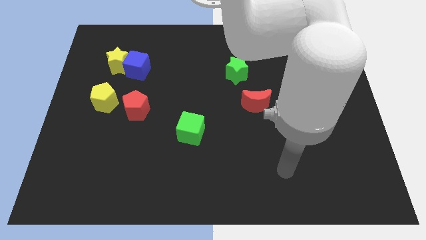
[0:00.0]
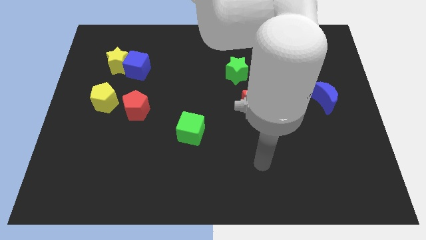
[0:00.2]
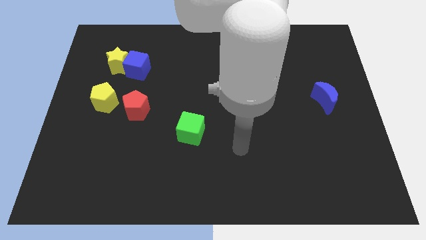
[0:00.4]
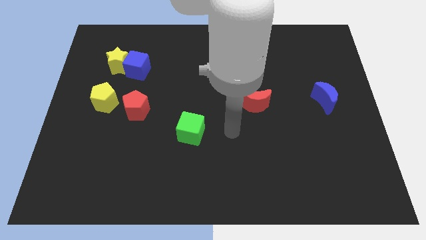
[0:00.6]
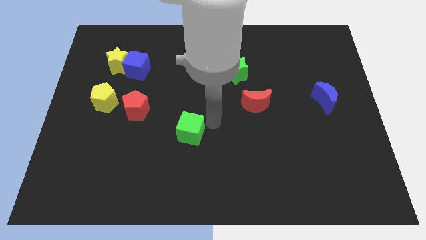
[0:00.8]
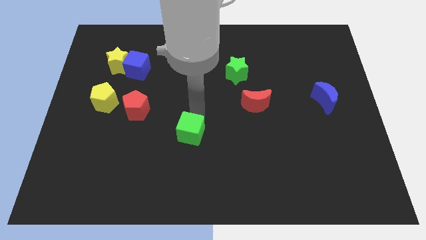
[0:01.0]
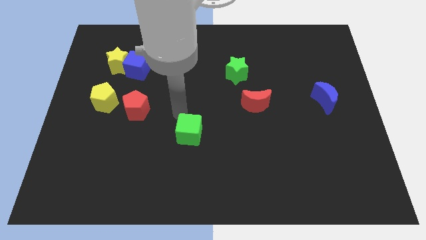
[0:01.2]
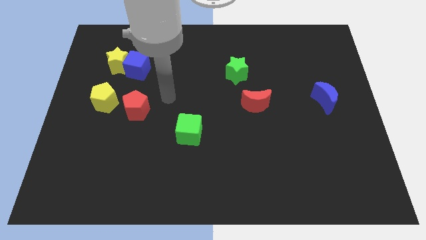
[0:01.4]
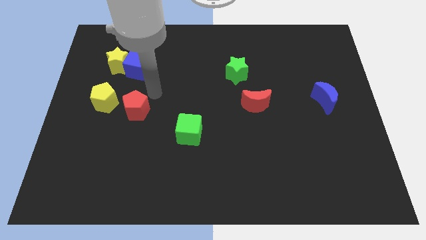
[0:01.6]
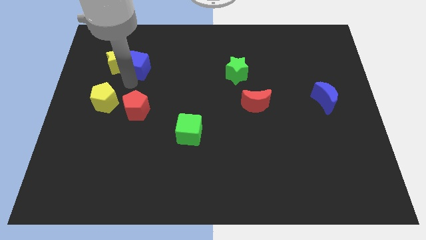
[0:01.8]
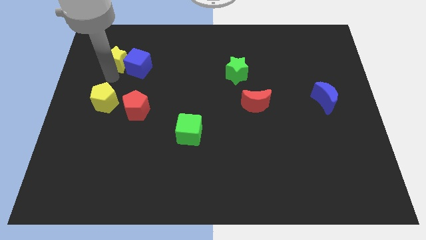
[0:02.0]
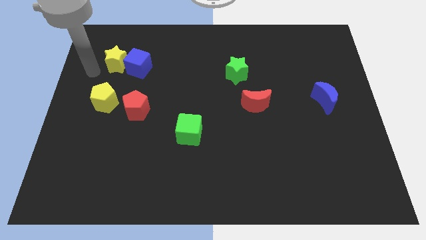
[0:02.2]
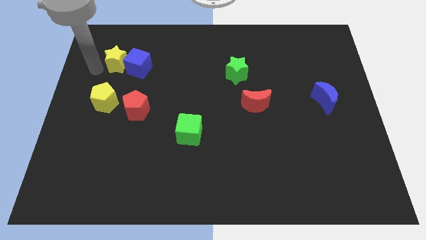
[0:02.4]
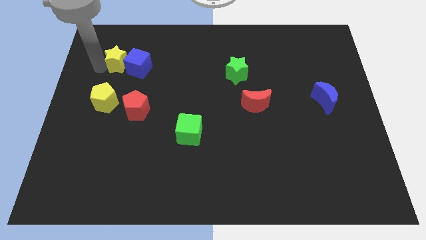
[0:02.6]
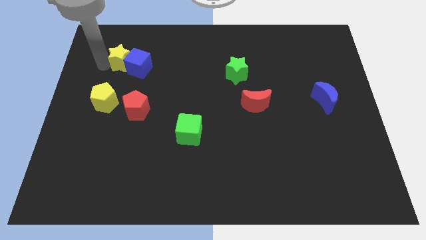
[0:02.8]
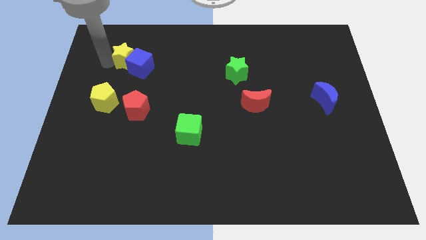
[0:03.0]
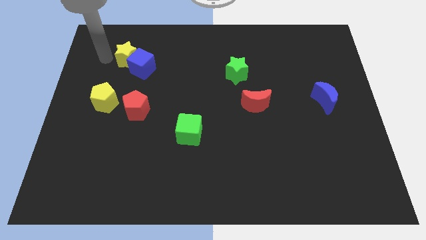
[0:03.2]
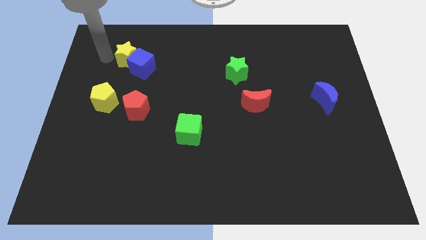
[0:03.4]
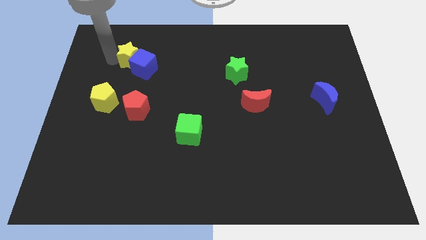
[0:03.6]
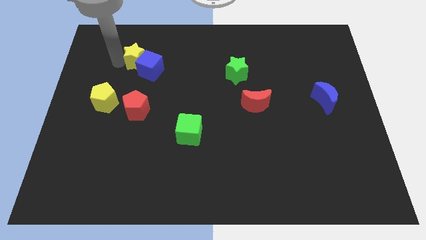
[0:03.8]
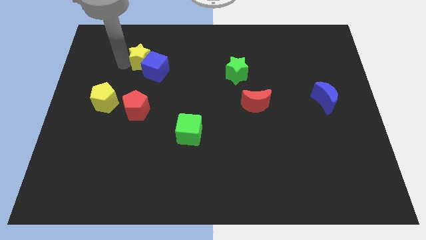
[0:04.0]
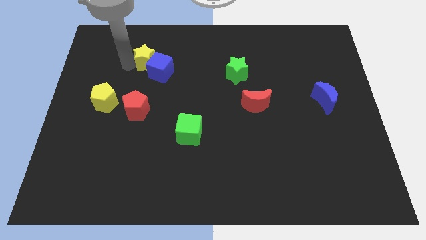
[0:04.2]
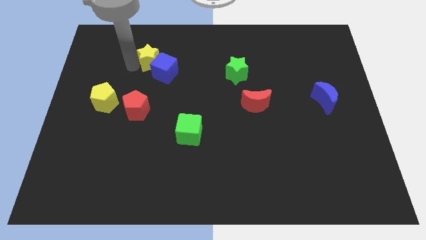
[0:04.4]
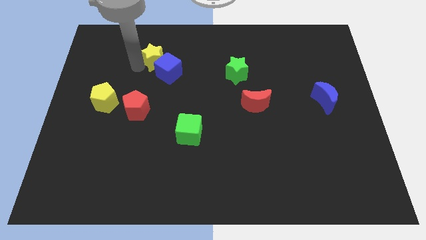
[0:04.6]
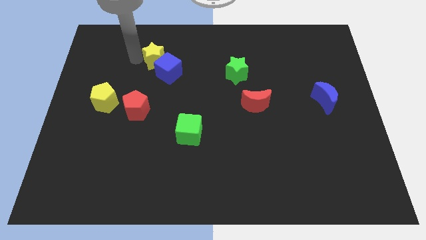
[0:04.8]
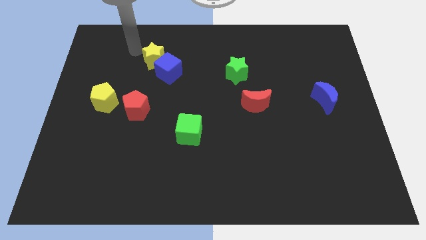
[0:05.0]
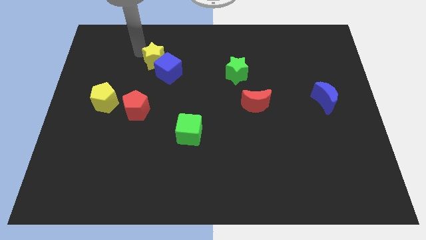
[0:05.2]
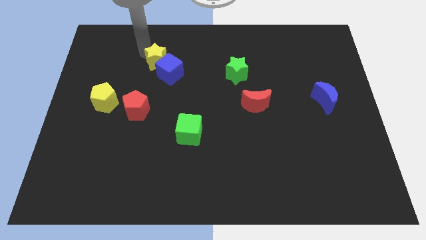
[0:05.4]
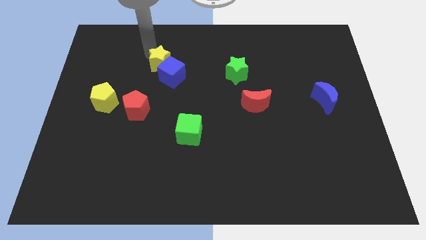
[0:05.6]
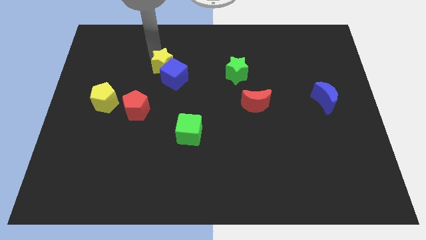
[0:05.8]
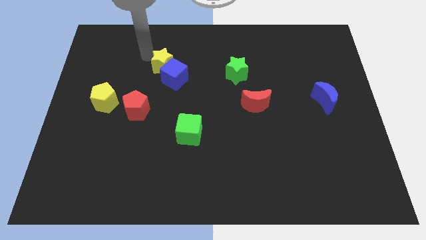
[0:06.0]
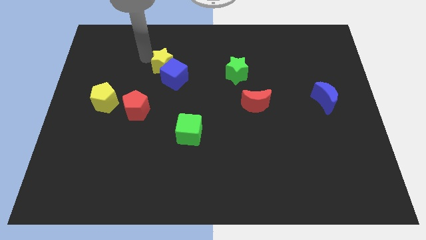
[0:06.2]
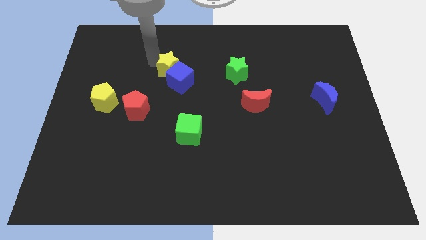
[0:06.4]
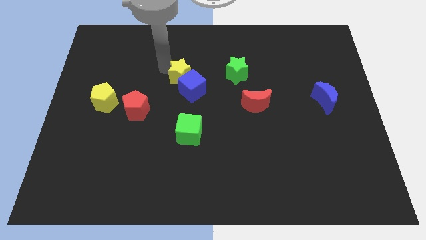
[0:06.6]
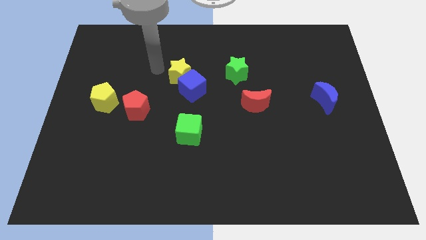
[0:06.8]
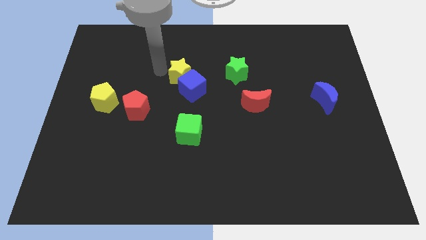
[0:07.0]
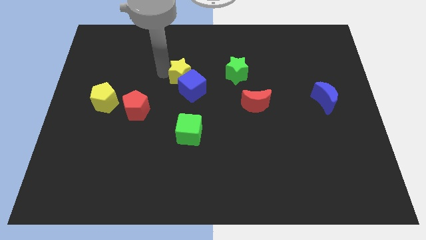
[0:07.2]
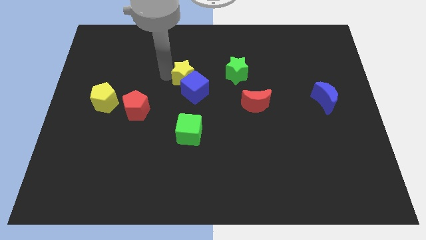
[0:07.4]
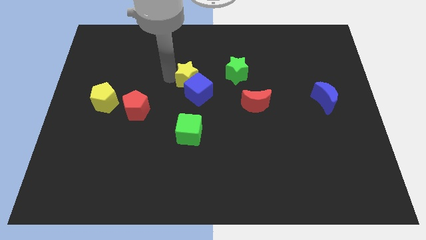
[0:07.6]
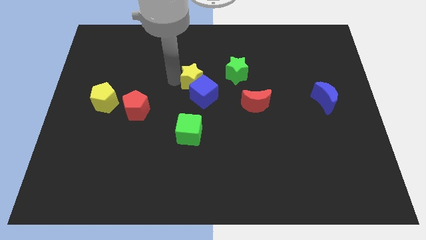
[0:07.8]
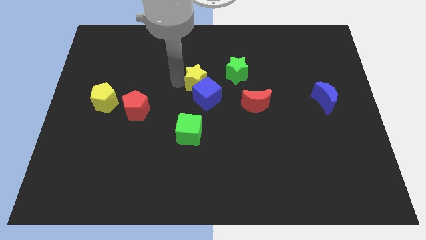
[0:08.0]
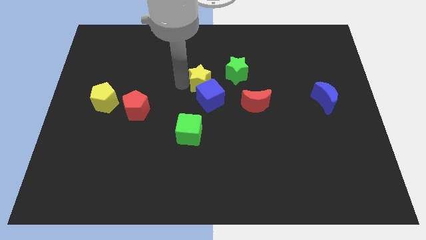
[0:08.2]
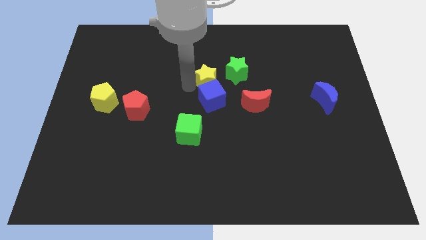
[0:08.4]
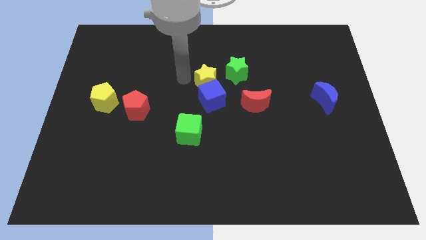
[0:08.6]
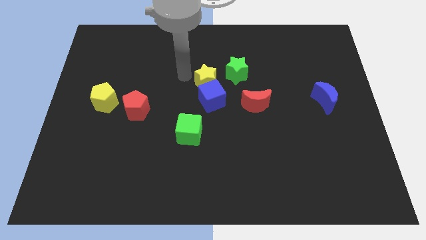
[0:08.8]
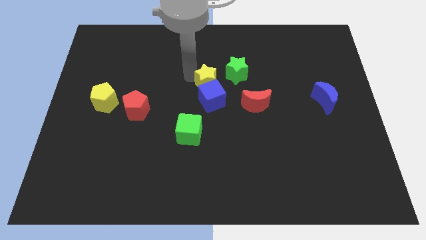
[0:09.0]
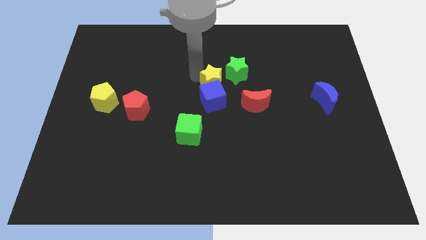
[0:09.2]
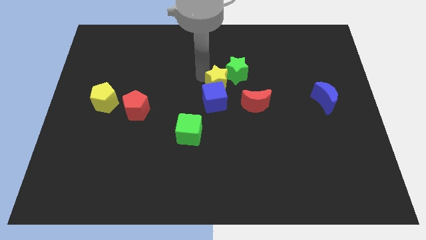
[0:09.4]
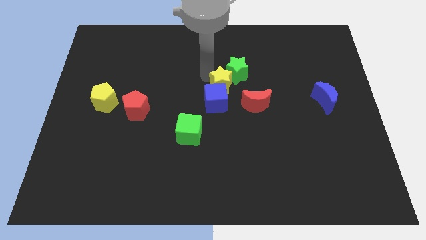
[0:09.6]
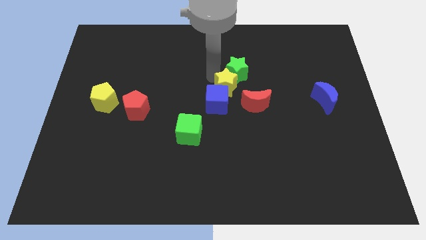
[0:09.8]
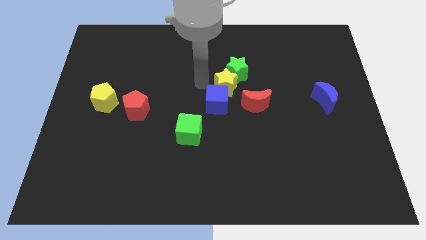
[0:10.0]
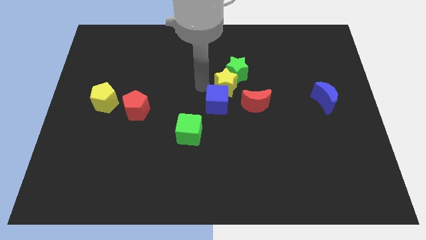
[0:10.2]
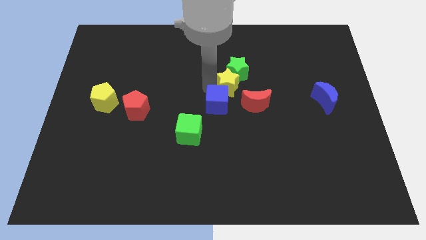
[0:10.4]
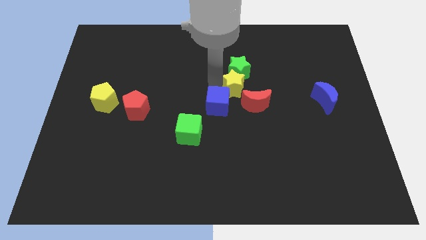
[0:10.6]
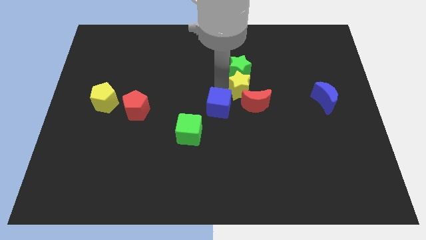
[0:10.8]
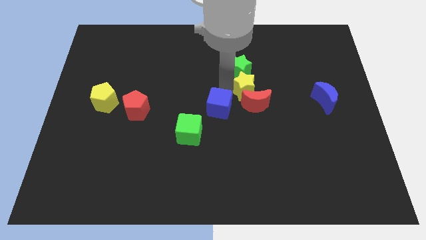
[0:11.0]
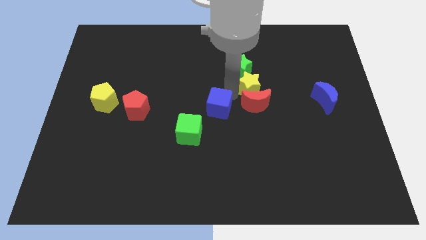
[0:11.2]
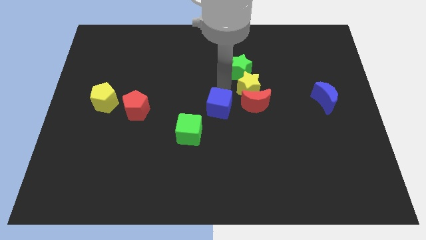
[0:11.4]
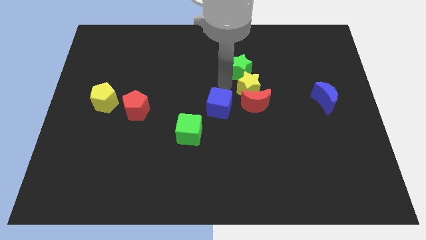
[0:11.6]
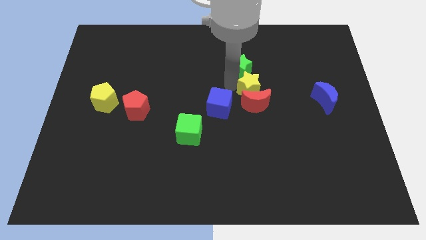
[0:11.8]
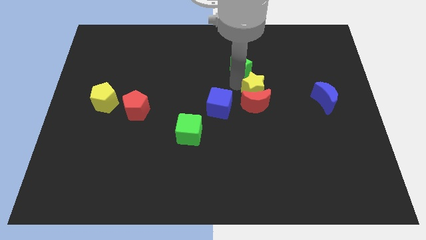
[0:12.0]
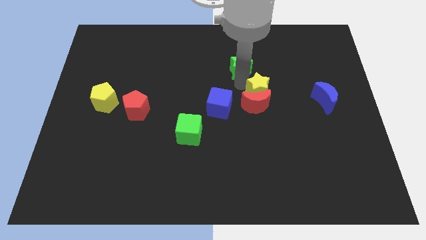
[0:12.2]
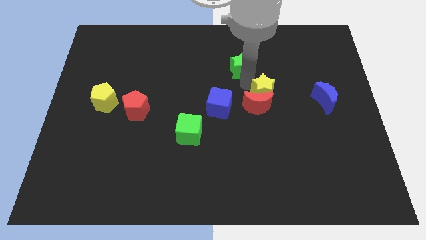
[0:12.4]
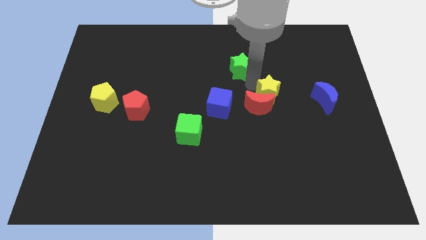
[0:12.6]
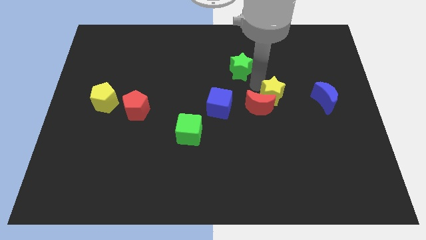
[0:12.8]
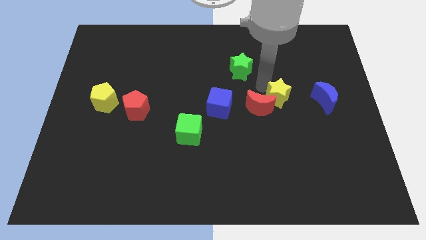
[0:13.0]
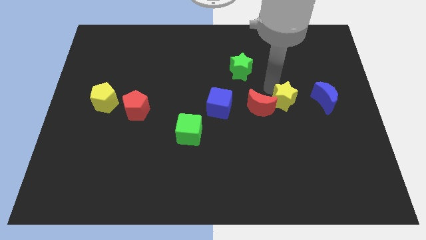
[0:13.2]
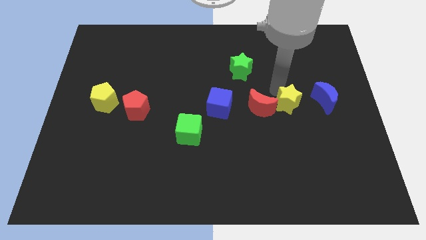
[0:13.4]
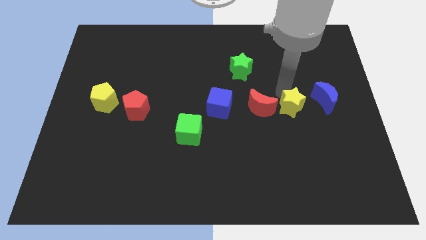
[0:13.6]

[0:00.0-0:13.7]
slide the yellow star to the bottom left of the blue moon
